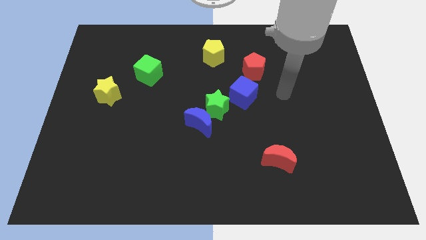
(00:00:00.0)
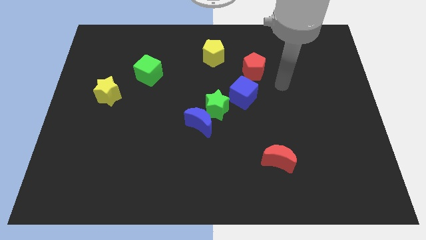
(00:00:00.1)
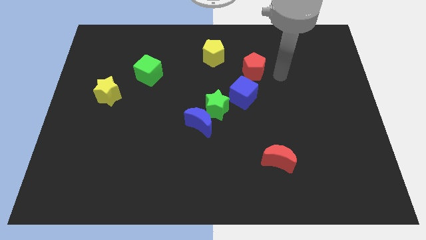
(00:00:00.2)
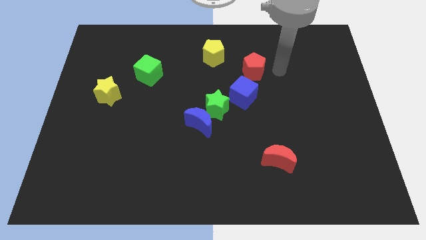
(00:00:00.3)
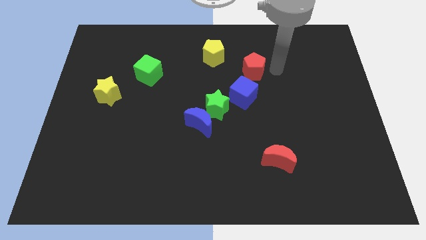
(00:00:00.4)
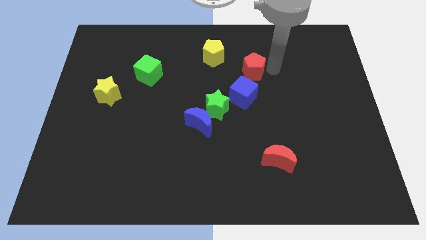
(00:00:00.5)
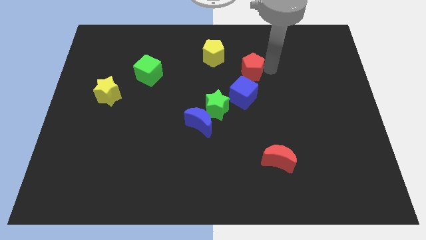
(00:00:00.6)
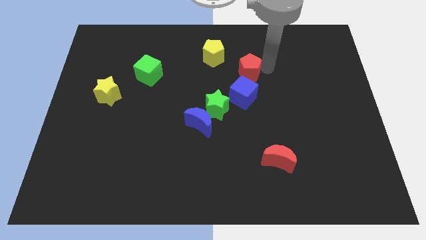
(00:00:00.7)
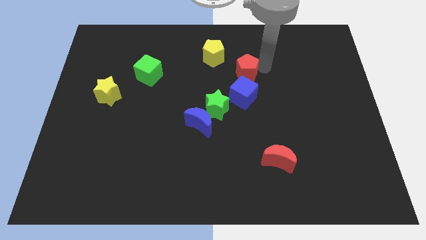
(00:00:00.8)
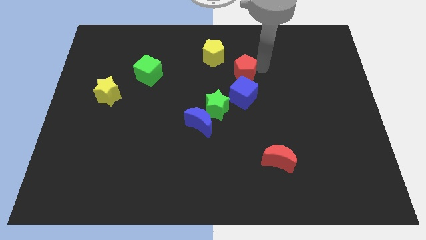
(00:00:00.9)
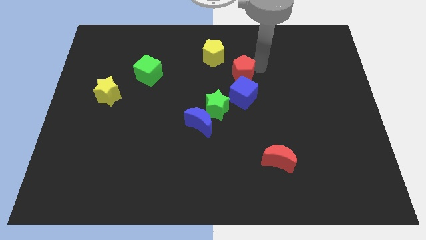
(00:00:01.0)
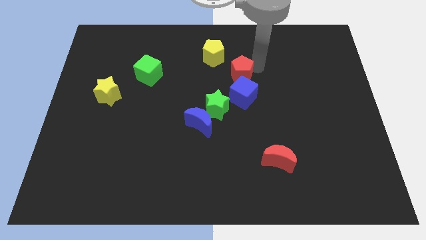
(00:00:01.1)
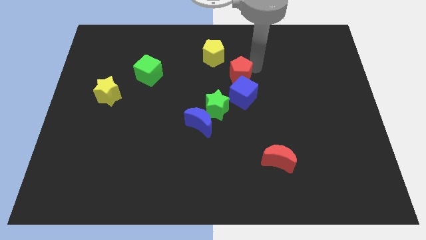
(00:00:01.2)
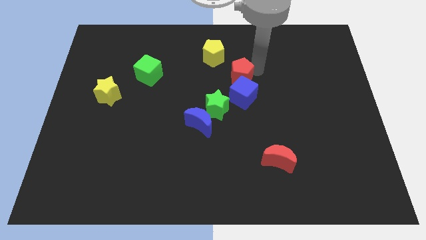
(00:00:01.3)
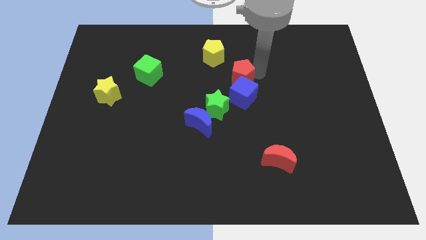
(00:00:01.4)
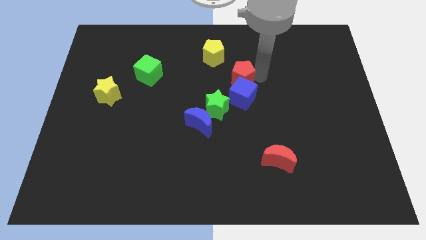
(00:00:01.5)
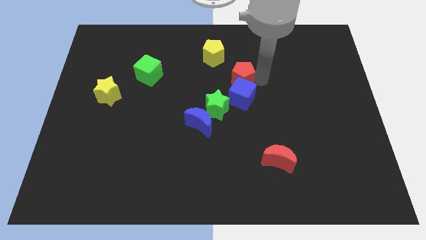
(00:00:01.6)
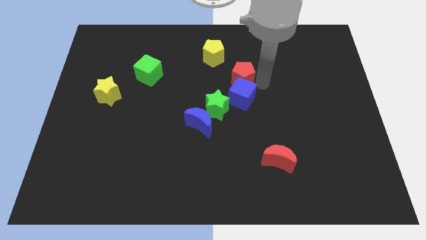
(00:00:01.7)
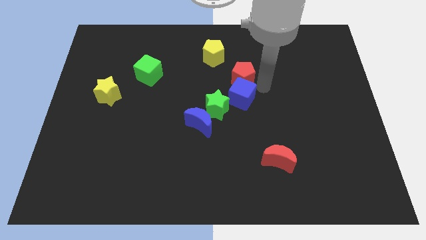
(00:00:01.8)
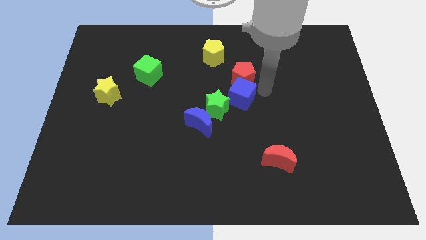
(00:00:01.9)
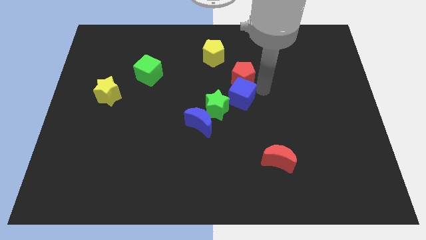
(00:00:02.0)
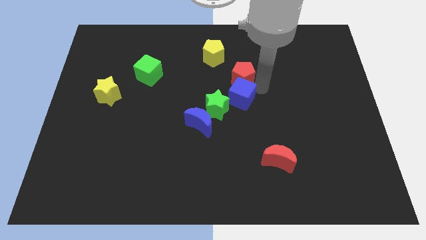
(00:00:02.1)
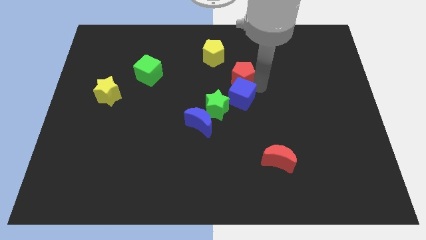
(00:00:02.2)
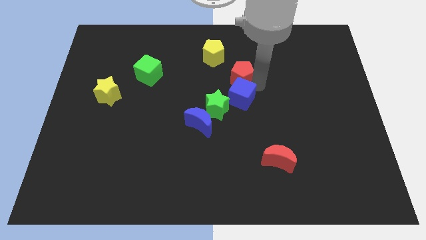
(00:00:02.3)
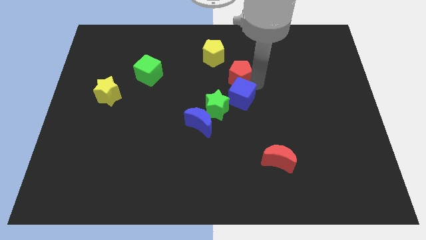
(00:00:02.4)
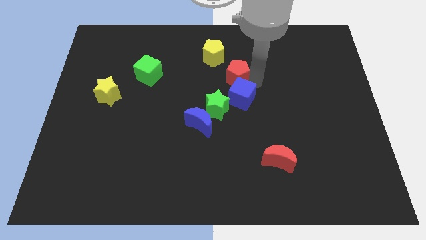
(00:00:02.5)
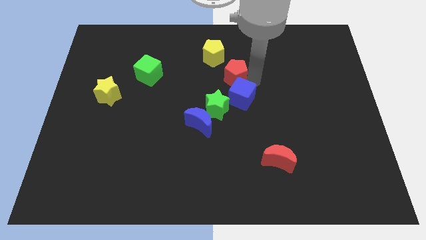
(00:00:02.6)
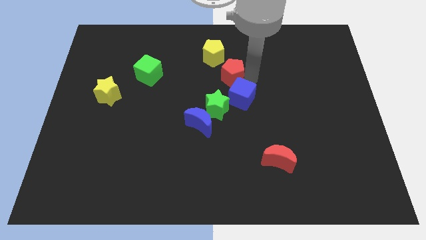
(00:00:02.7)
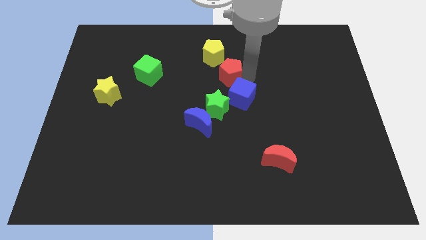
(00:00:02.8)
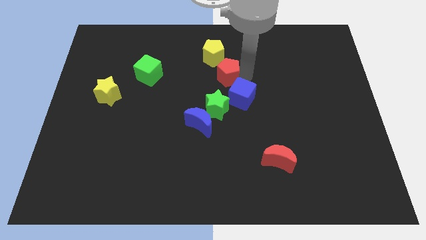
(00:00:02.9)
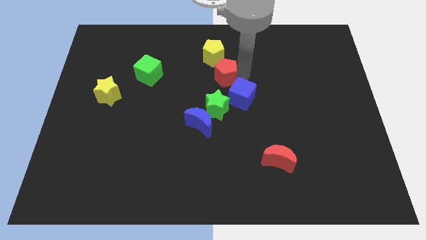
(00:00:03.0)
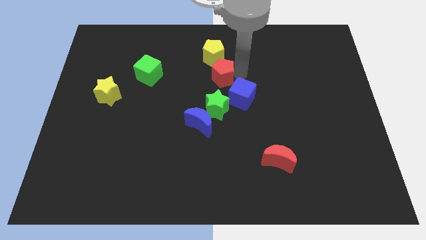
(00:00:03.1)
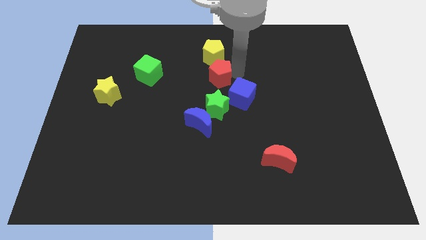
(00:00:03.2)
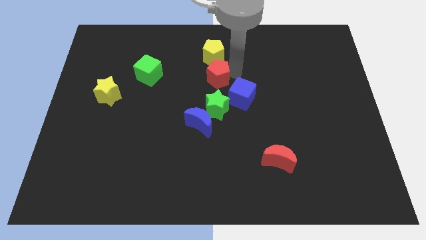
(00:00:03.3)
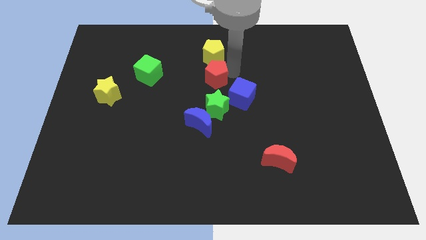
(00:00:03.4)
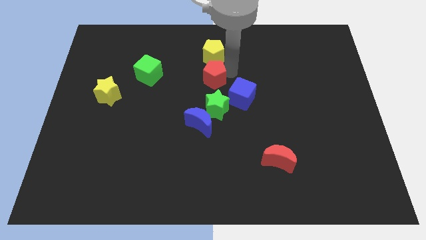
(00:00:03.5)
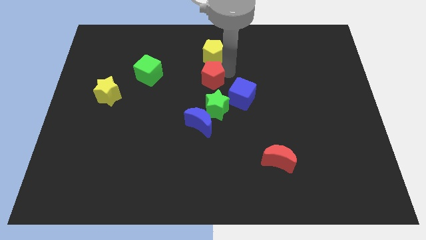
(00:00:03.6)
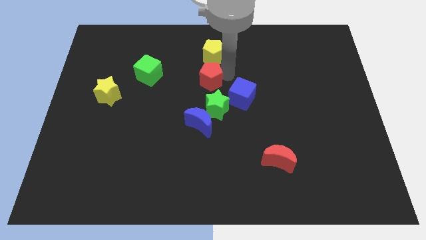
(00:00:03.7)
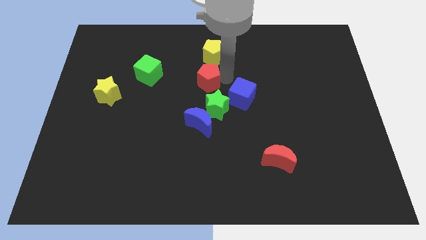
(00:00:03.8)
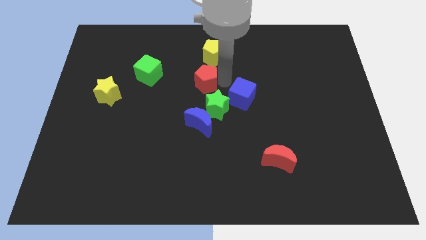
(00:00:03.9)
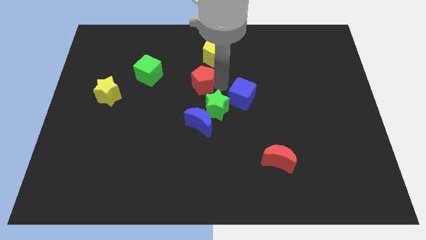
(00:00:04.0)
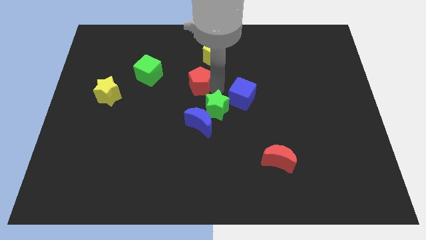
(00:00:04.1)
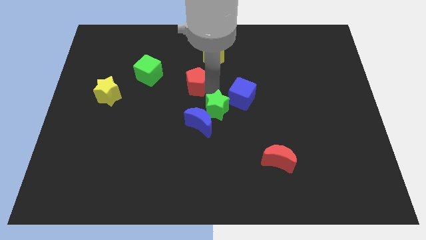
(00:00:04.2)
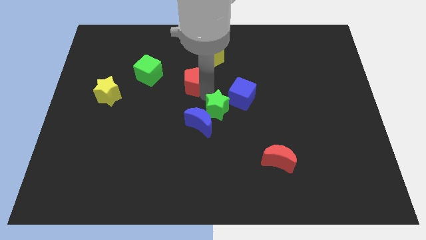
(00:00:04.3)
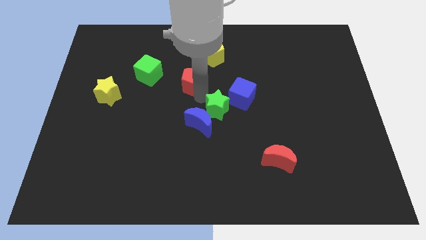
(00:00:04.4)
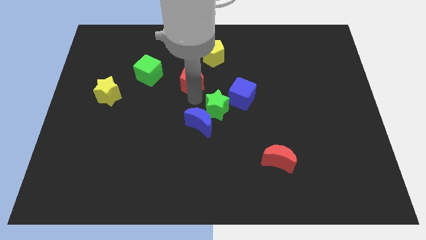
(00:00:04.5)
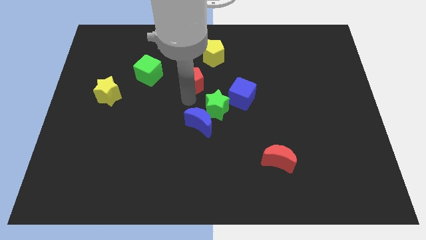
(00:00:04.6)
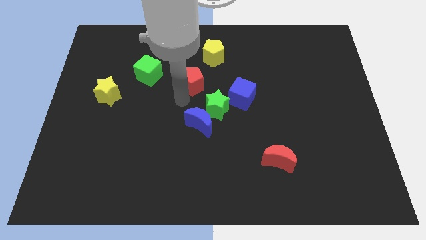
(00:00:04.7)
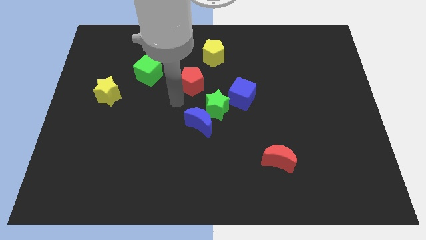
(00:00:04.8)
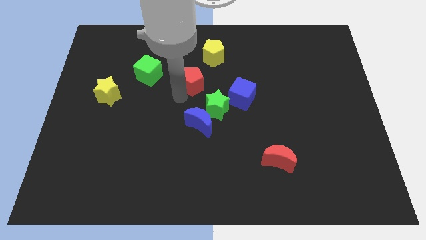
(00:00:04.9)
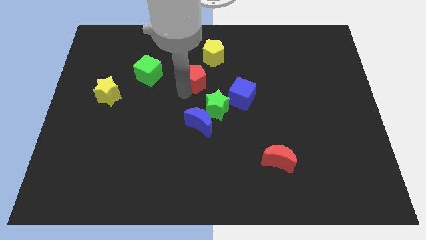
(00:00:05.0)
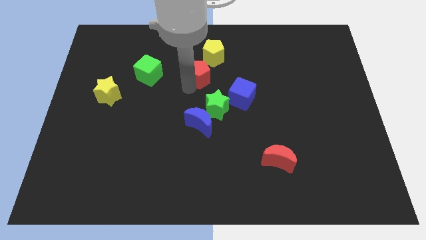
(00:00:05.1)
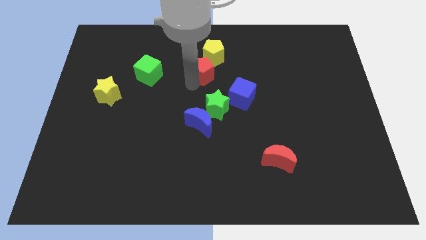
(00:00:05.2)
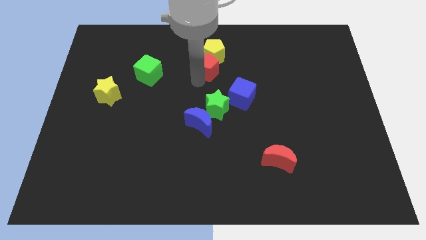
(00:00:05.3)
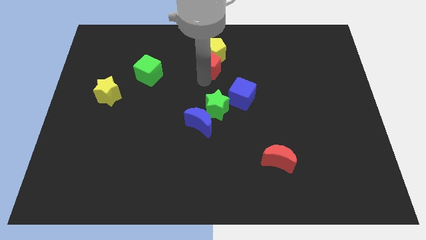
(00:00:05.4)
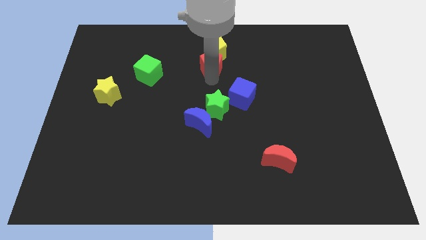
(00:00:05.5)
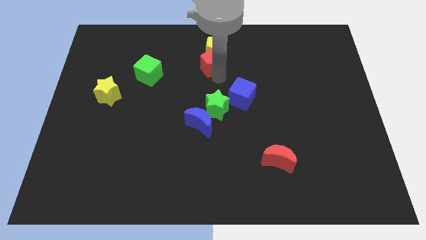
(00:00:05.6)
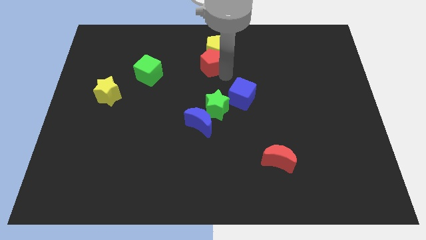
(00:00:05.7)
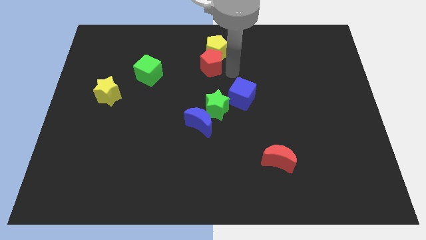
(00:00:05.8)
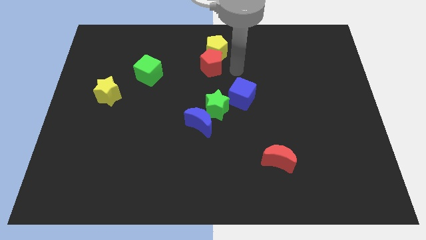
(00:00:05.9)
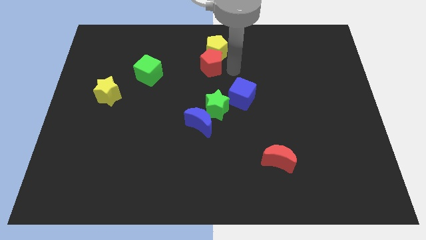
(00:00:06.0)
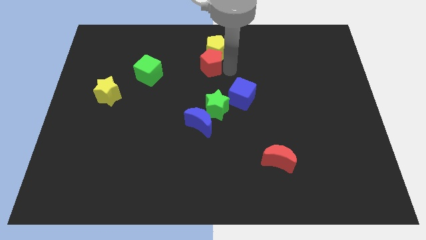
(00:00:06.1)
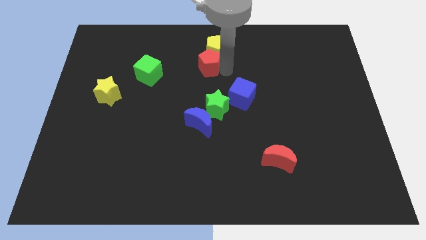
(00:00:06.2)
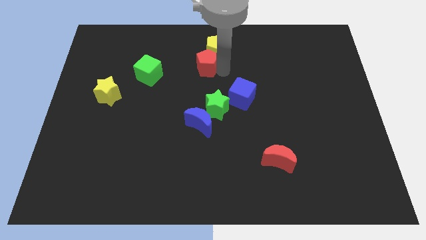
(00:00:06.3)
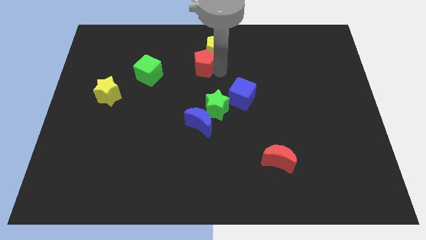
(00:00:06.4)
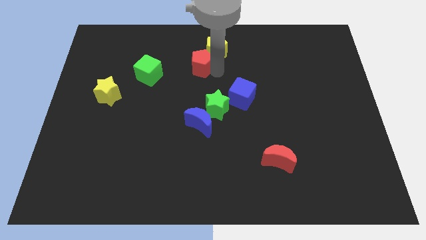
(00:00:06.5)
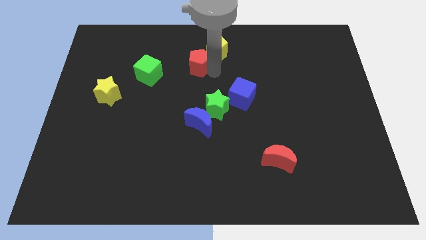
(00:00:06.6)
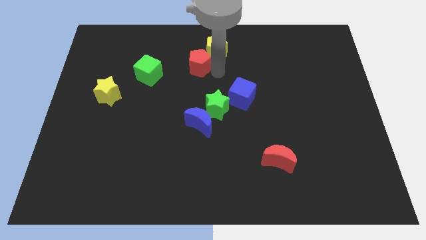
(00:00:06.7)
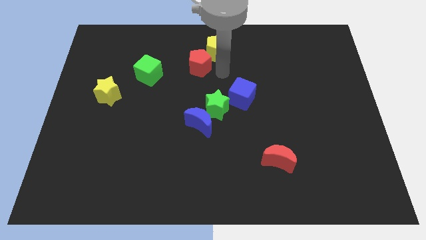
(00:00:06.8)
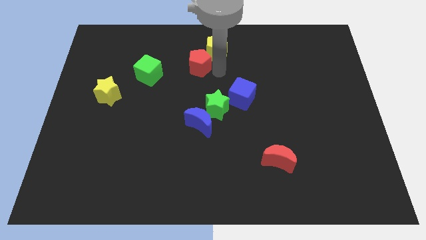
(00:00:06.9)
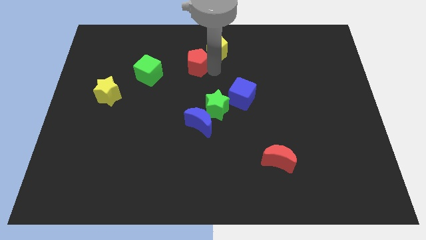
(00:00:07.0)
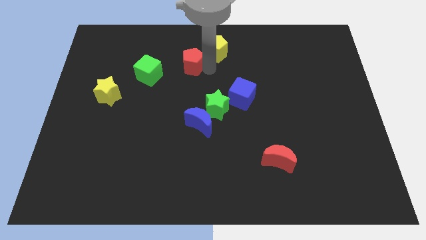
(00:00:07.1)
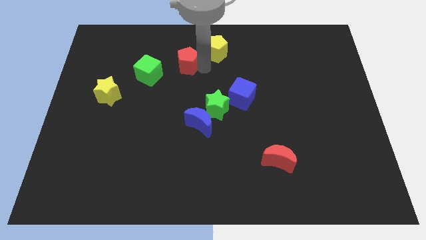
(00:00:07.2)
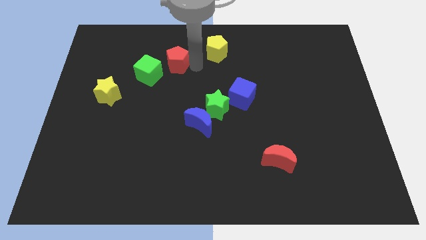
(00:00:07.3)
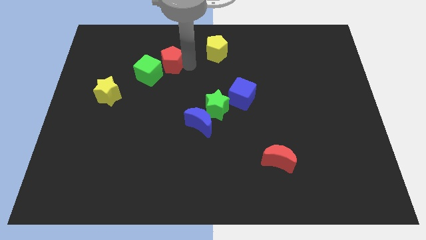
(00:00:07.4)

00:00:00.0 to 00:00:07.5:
push the red pentagon left

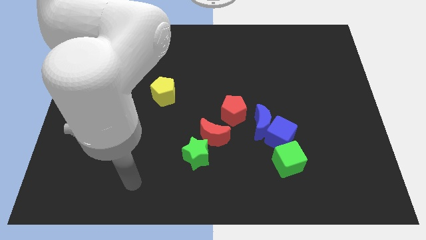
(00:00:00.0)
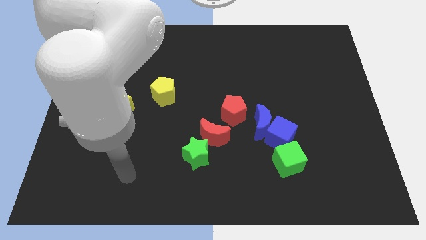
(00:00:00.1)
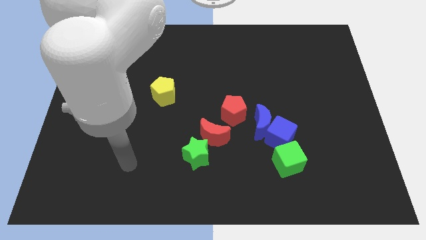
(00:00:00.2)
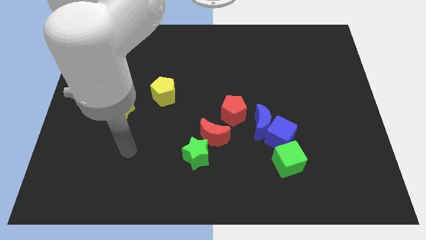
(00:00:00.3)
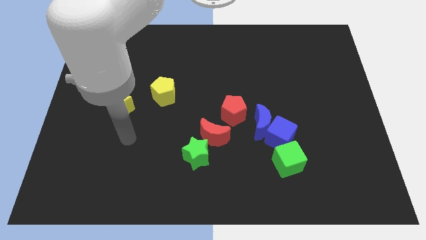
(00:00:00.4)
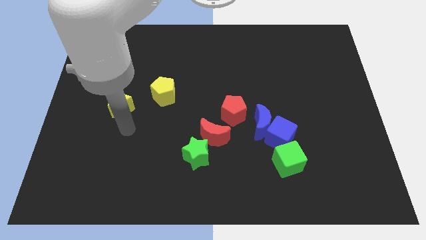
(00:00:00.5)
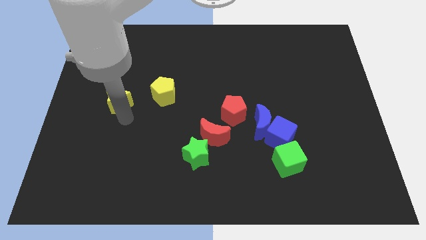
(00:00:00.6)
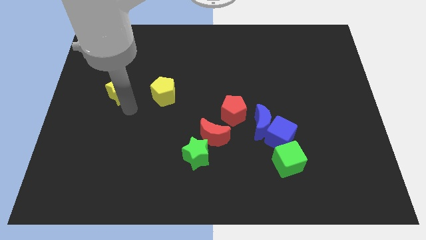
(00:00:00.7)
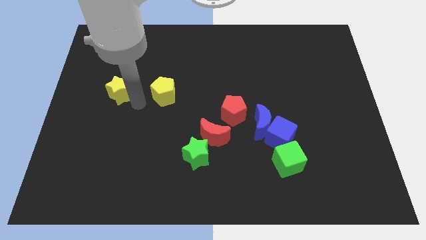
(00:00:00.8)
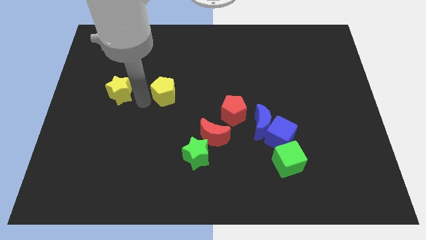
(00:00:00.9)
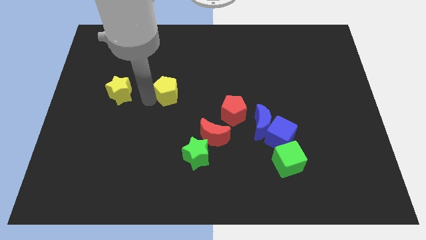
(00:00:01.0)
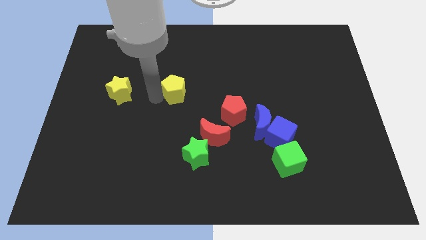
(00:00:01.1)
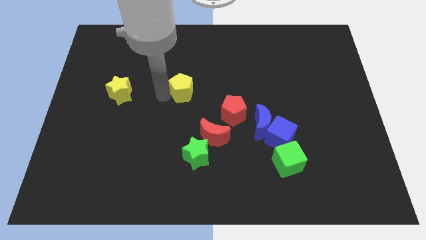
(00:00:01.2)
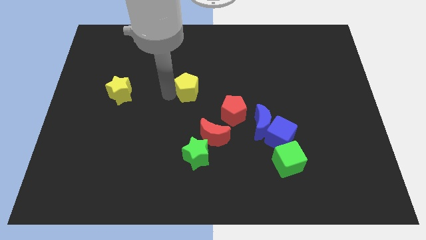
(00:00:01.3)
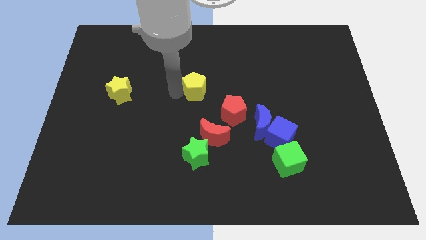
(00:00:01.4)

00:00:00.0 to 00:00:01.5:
push the yellow pentagon a little bit to the right
